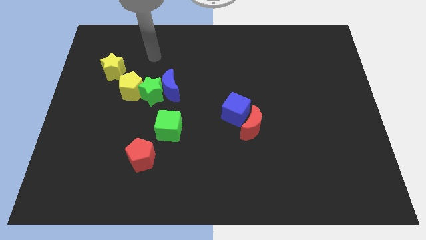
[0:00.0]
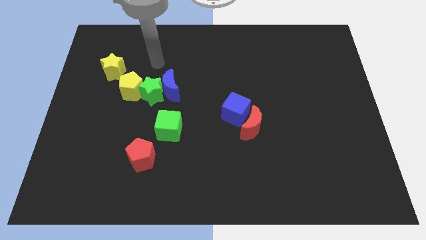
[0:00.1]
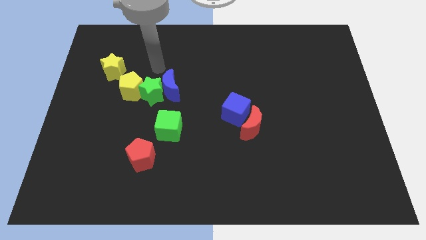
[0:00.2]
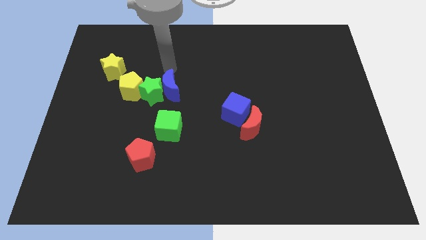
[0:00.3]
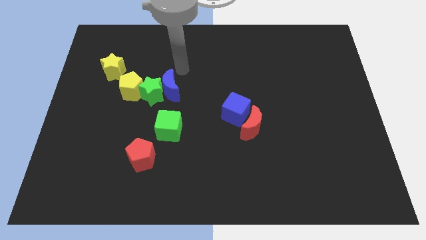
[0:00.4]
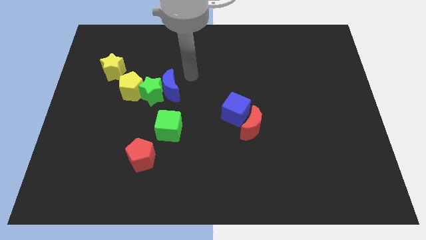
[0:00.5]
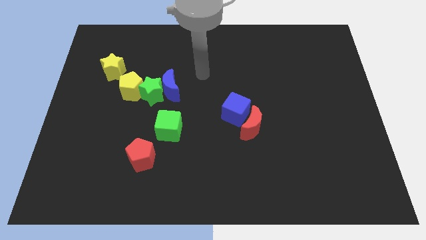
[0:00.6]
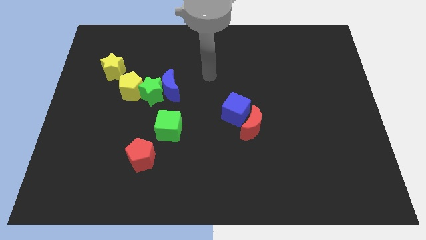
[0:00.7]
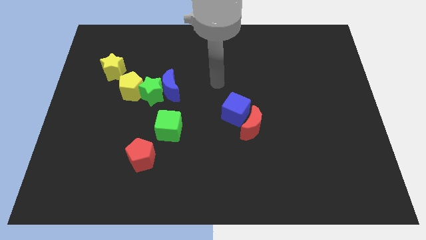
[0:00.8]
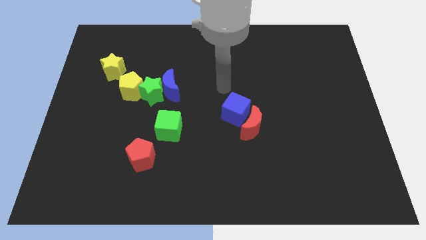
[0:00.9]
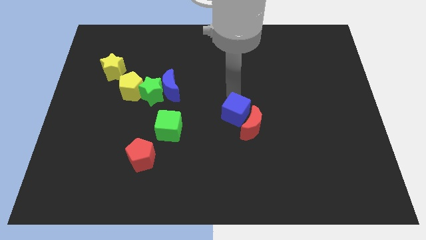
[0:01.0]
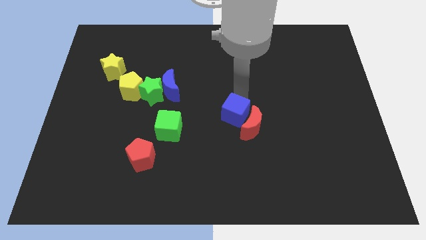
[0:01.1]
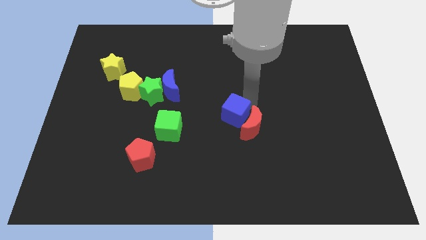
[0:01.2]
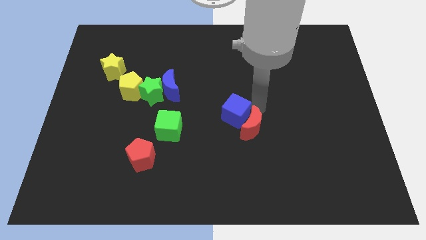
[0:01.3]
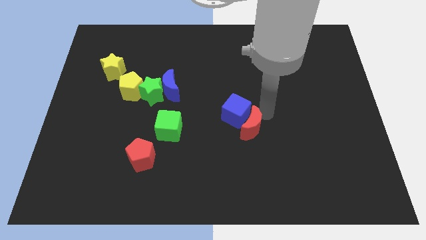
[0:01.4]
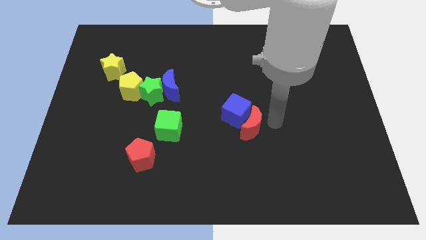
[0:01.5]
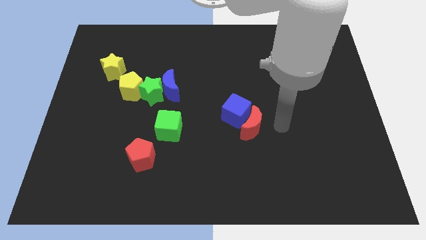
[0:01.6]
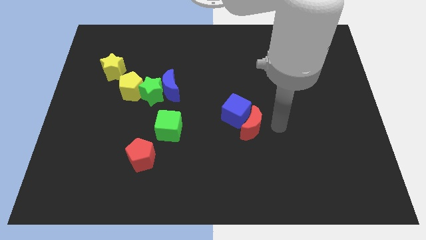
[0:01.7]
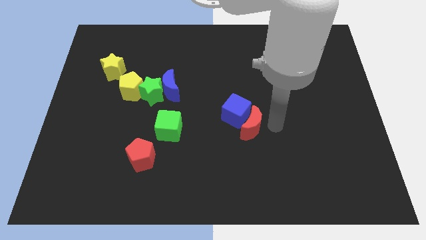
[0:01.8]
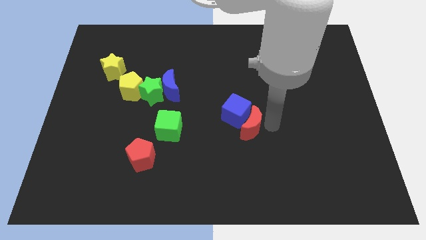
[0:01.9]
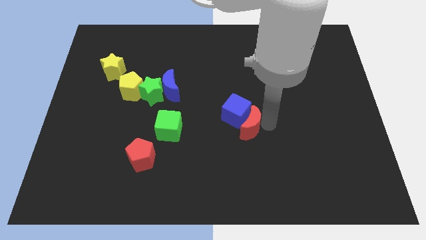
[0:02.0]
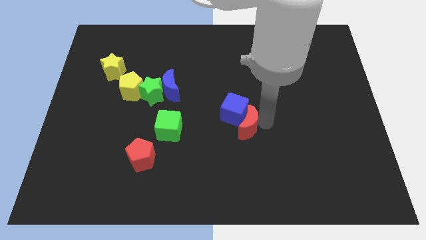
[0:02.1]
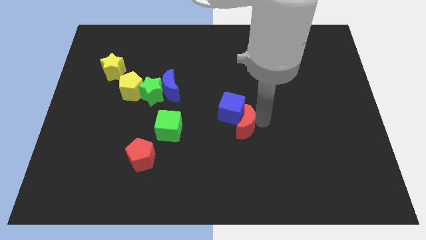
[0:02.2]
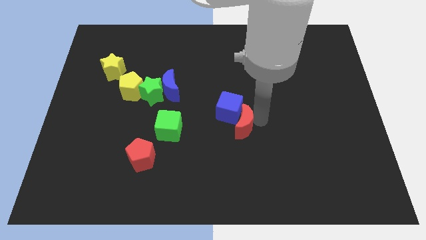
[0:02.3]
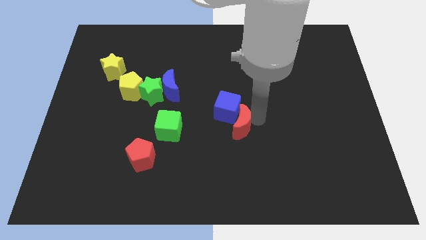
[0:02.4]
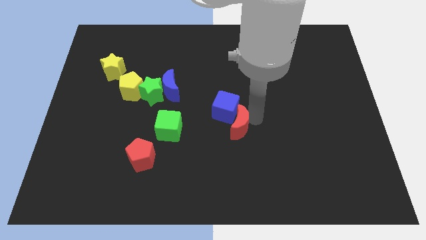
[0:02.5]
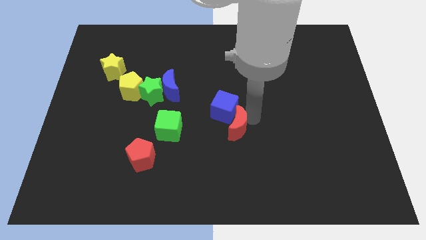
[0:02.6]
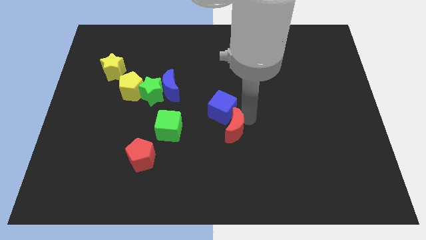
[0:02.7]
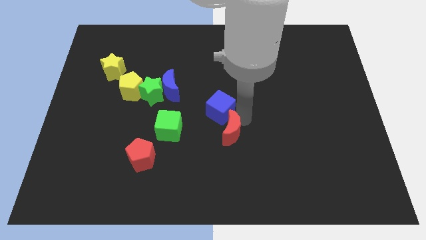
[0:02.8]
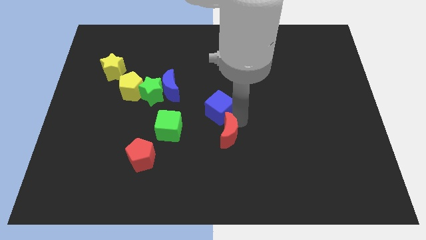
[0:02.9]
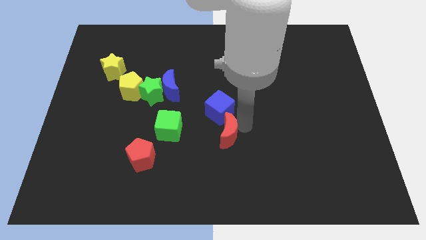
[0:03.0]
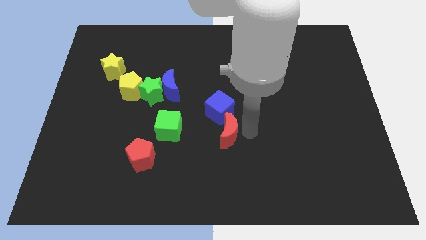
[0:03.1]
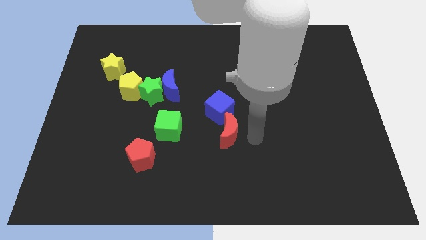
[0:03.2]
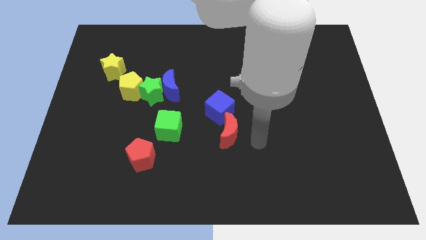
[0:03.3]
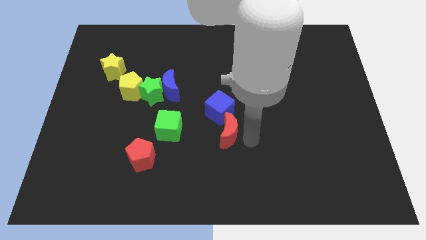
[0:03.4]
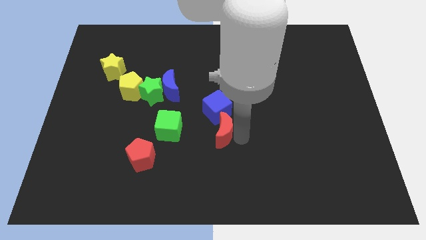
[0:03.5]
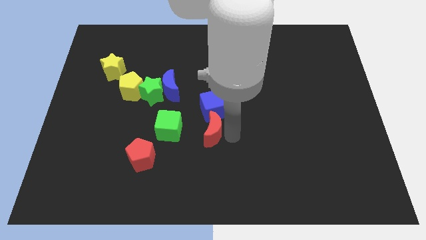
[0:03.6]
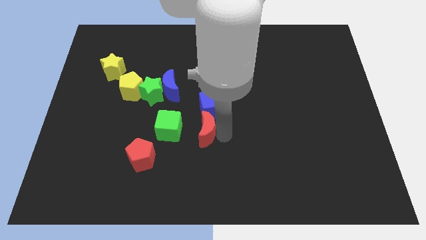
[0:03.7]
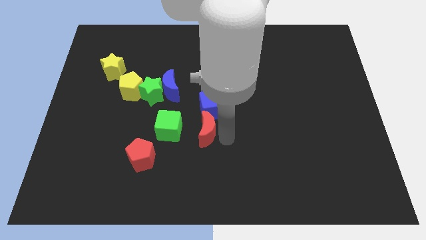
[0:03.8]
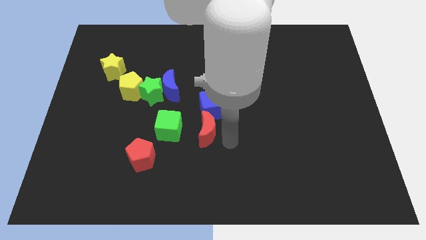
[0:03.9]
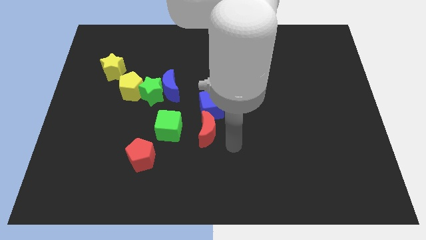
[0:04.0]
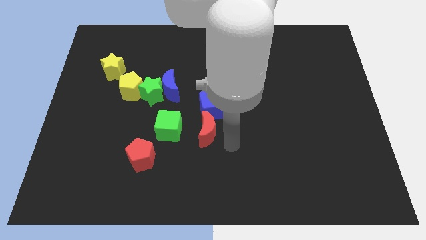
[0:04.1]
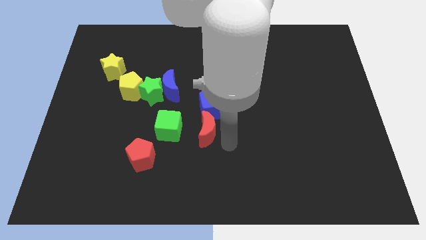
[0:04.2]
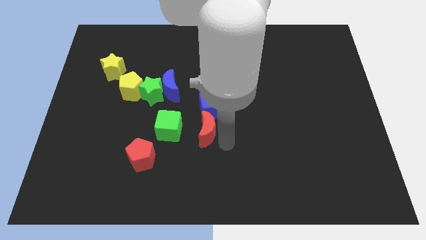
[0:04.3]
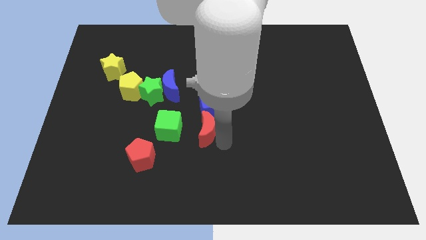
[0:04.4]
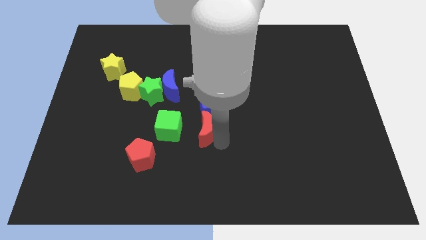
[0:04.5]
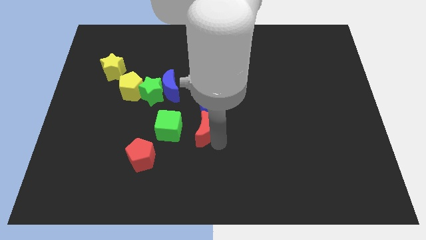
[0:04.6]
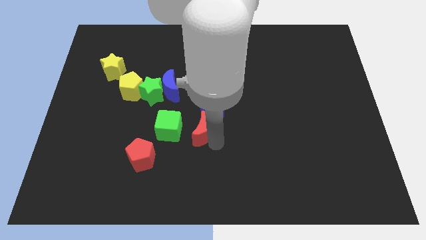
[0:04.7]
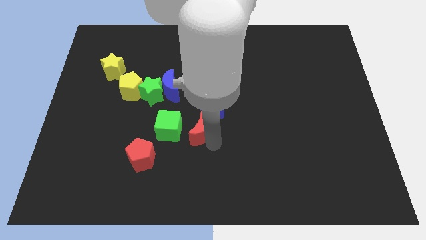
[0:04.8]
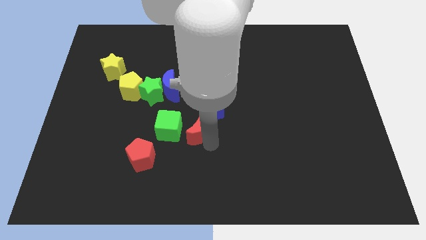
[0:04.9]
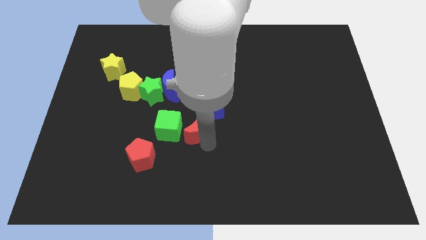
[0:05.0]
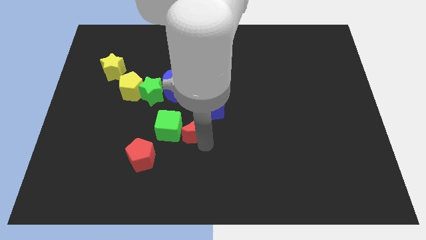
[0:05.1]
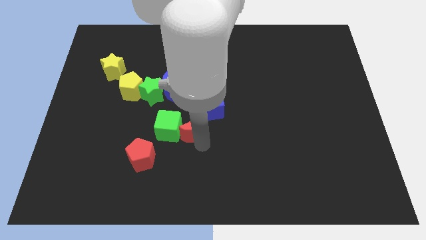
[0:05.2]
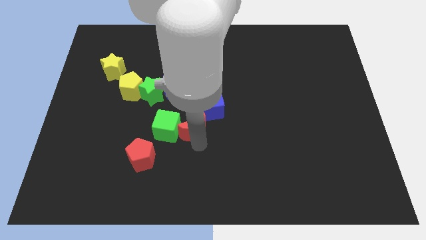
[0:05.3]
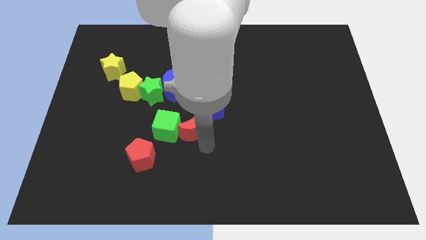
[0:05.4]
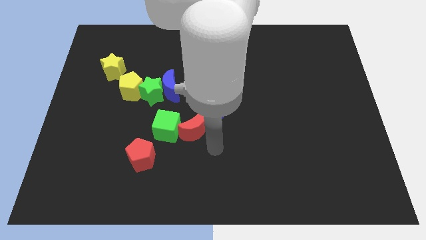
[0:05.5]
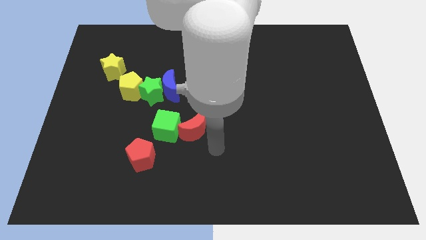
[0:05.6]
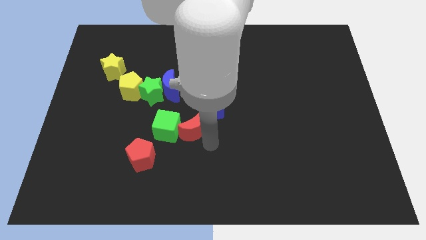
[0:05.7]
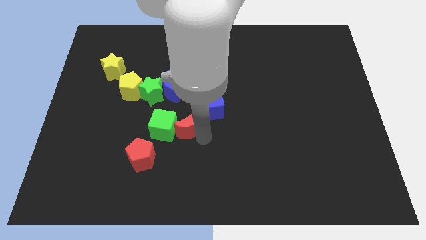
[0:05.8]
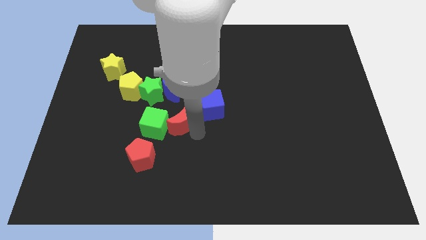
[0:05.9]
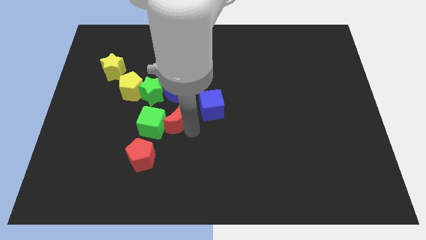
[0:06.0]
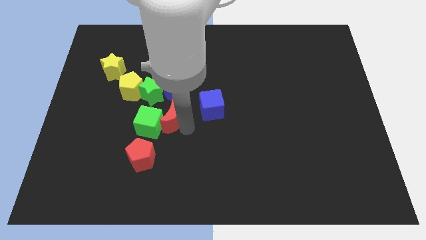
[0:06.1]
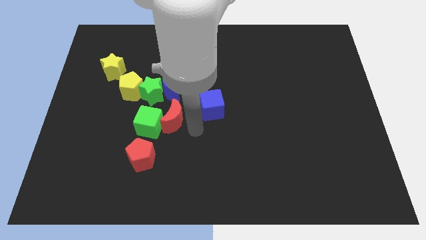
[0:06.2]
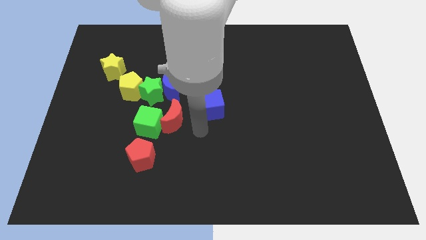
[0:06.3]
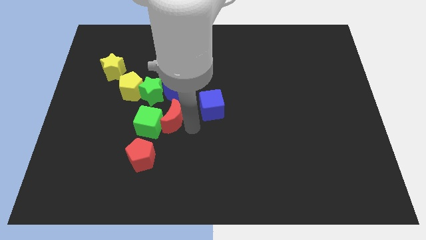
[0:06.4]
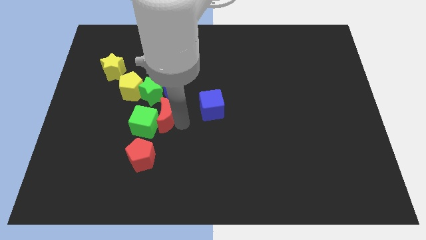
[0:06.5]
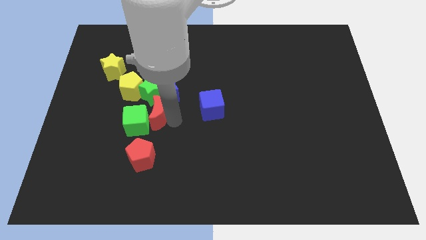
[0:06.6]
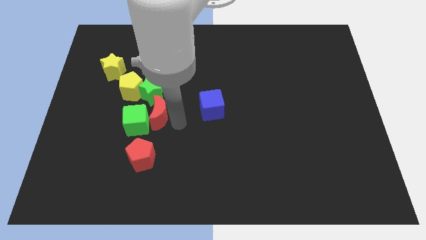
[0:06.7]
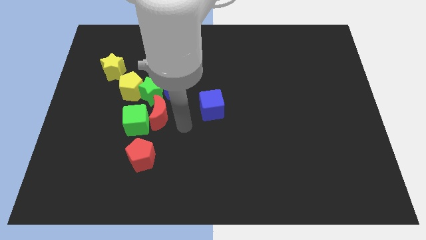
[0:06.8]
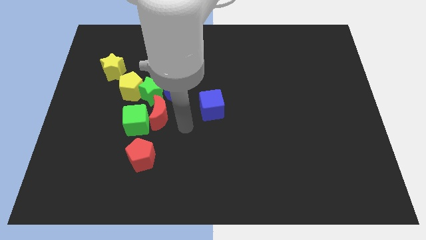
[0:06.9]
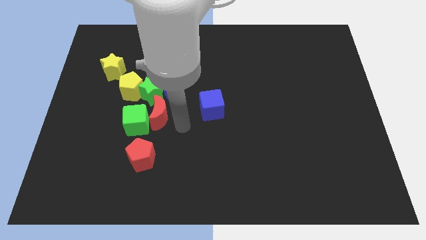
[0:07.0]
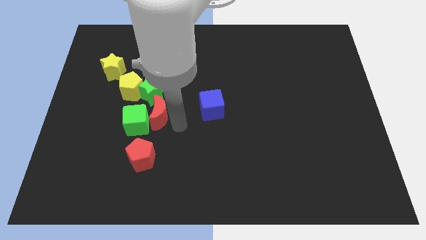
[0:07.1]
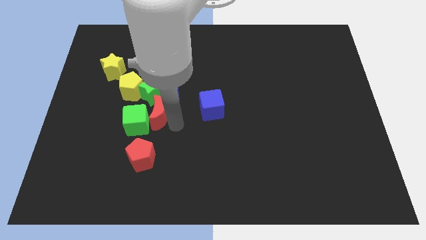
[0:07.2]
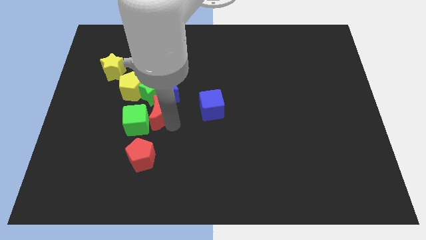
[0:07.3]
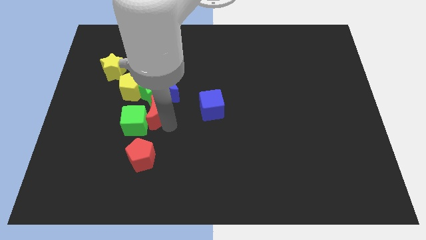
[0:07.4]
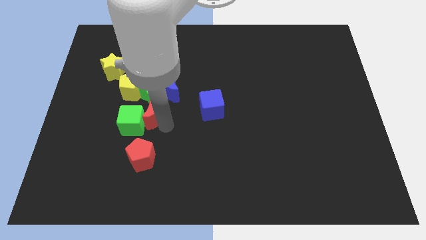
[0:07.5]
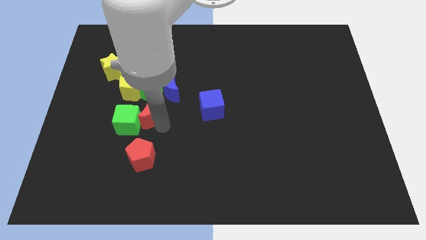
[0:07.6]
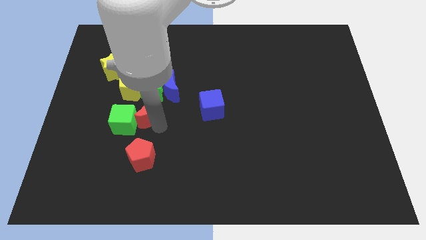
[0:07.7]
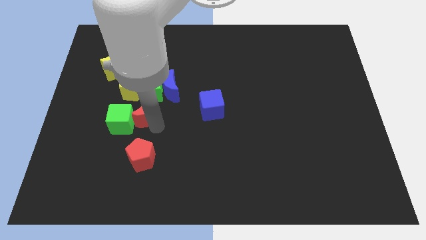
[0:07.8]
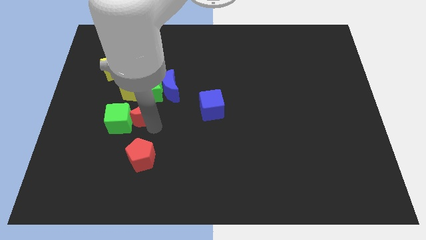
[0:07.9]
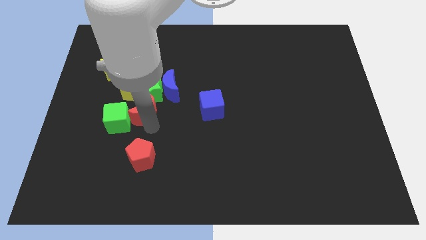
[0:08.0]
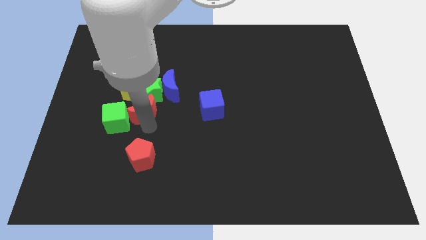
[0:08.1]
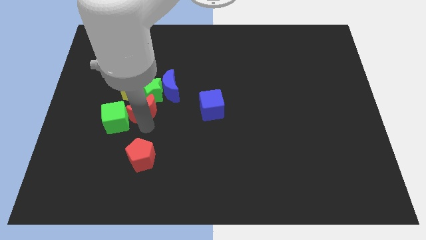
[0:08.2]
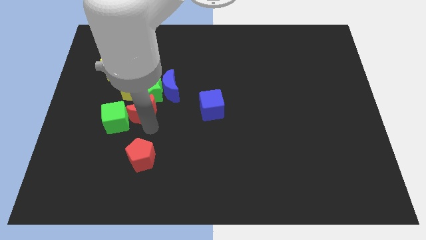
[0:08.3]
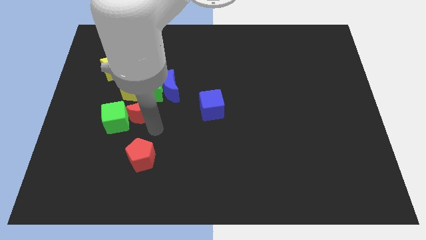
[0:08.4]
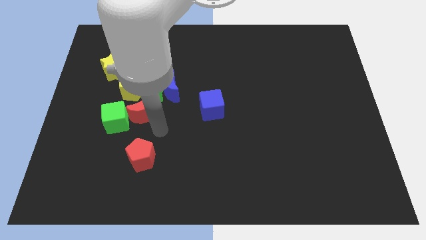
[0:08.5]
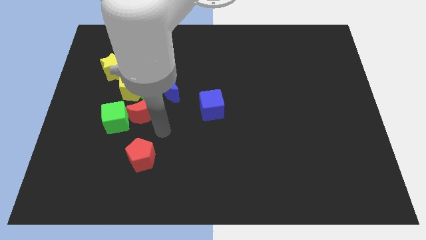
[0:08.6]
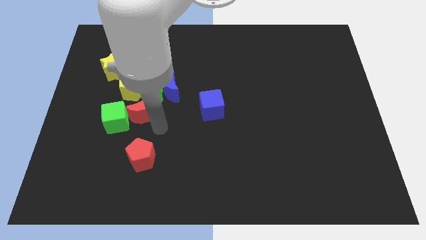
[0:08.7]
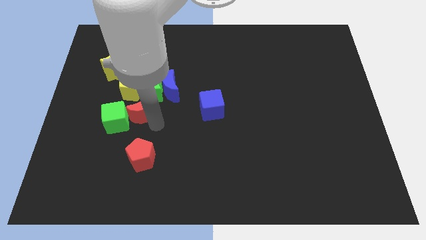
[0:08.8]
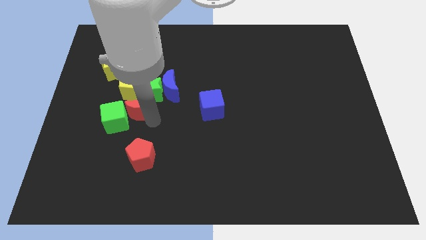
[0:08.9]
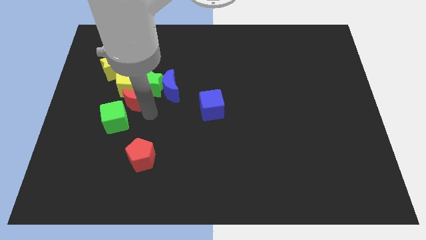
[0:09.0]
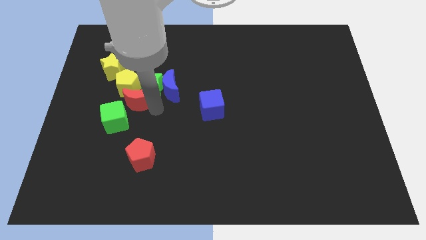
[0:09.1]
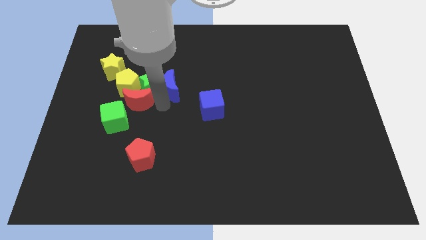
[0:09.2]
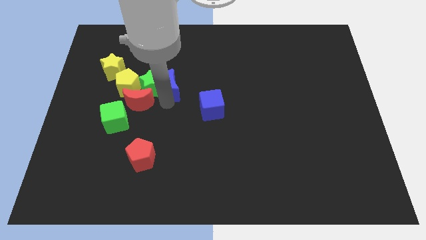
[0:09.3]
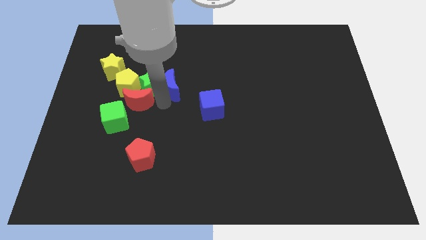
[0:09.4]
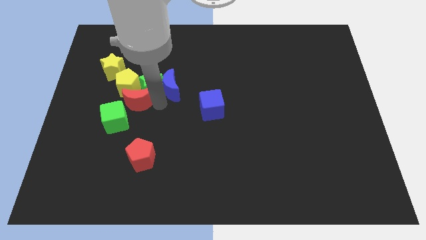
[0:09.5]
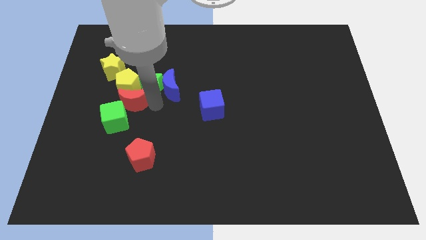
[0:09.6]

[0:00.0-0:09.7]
put the red moon diagonally down and to the left of the yellow pentagon
